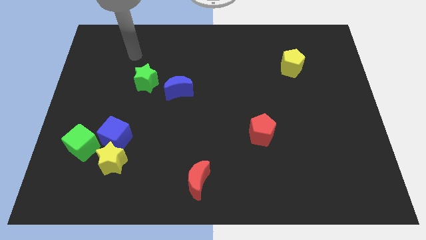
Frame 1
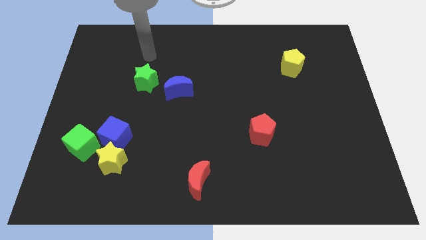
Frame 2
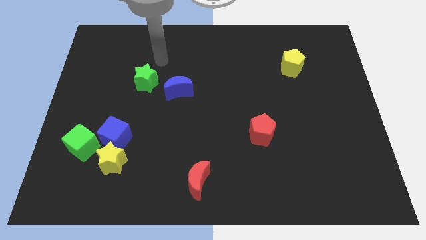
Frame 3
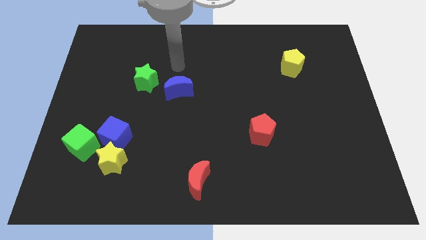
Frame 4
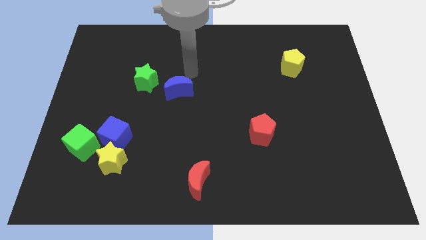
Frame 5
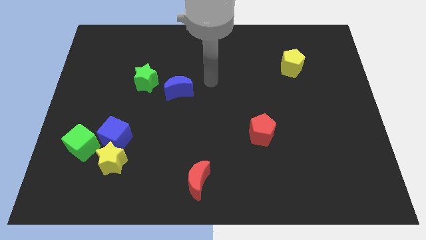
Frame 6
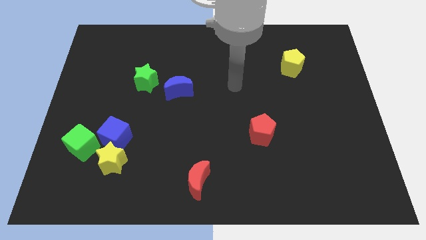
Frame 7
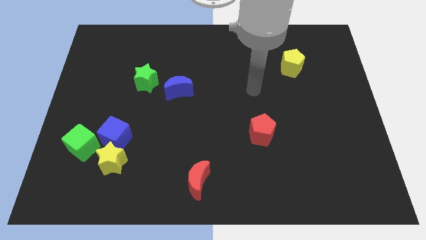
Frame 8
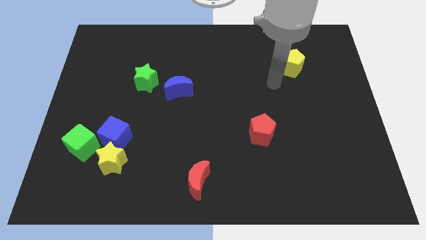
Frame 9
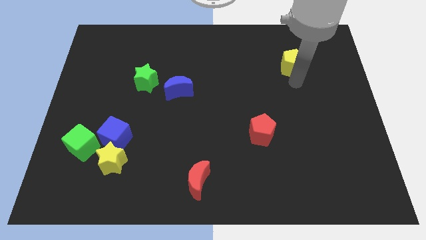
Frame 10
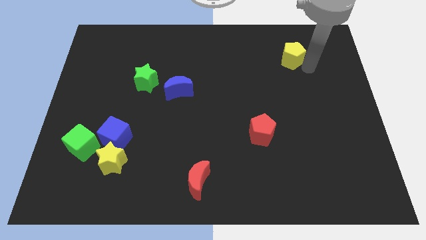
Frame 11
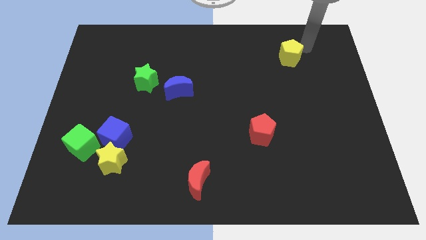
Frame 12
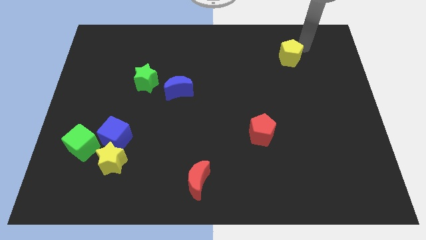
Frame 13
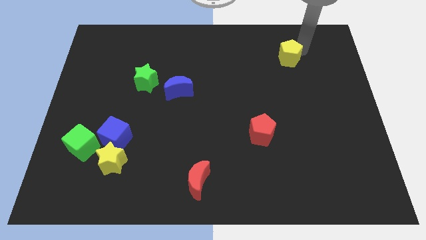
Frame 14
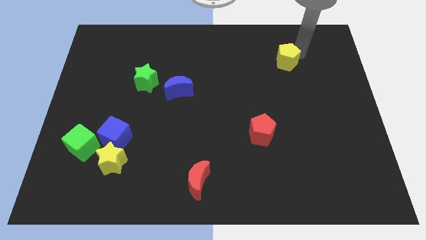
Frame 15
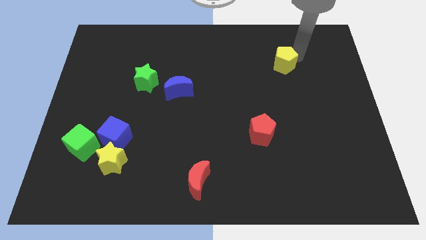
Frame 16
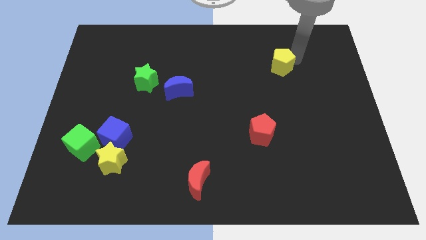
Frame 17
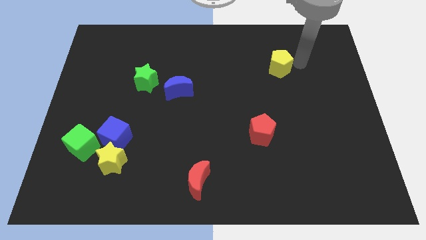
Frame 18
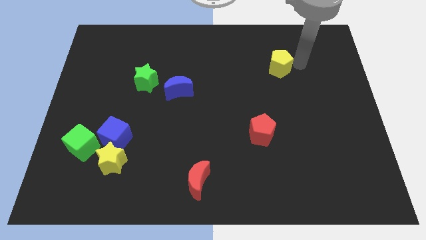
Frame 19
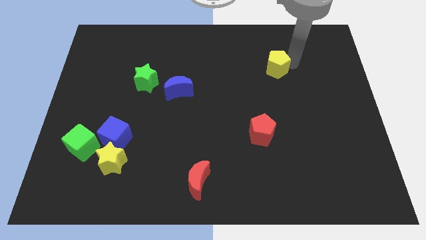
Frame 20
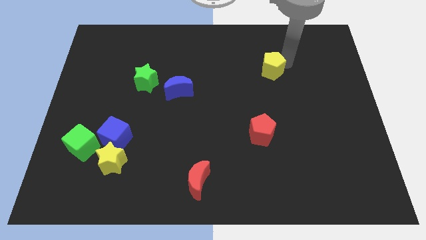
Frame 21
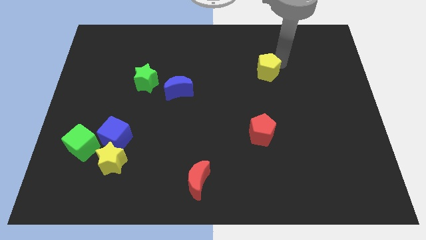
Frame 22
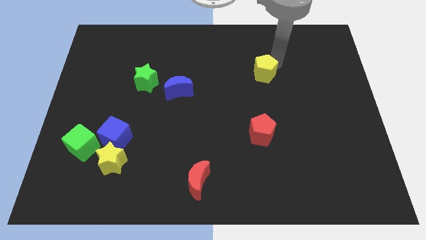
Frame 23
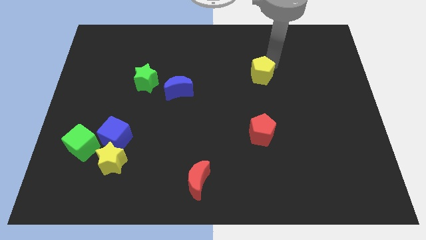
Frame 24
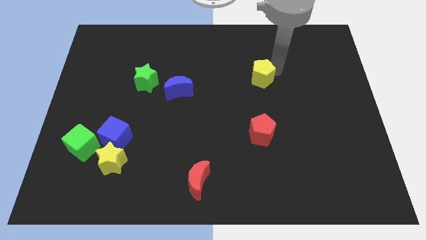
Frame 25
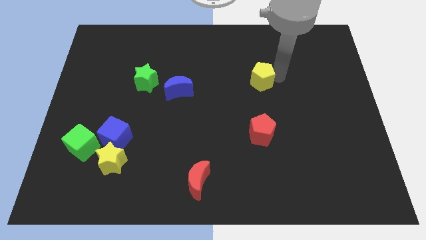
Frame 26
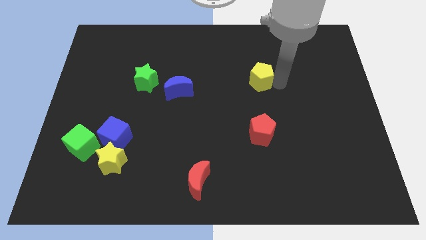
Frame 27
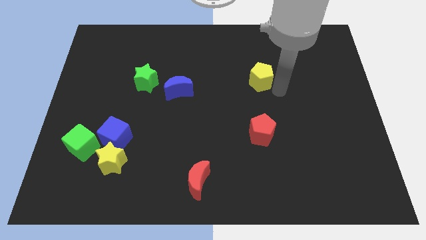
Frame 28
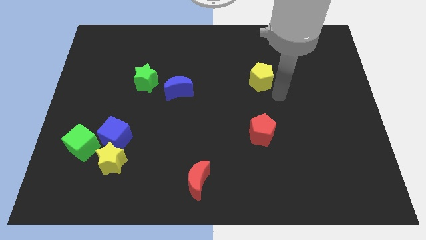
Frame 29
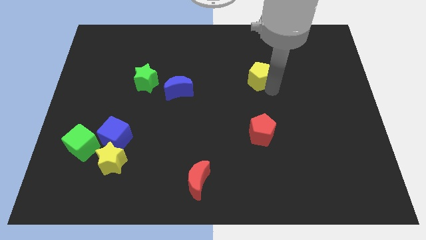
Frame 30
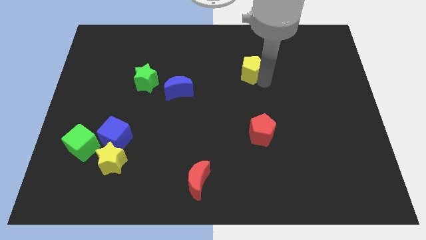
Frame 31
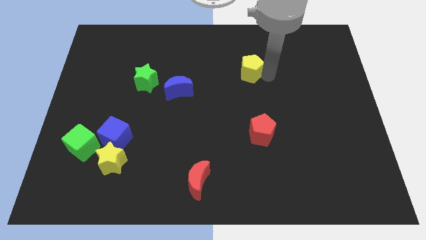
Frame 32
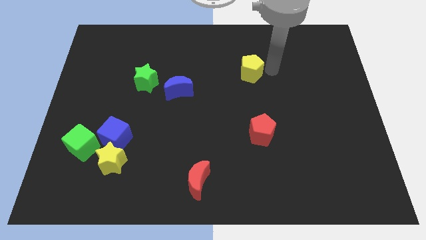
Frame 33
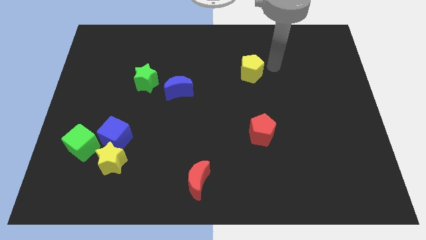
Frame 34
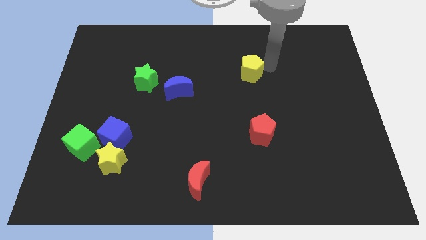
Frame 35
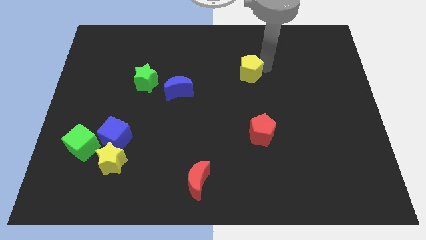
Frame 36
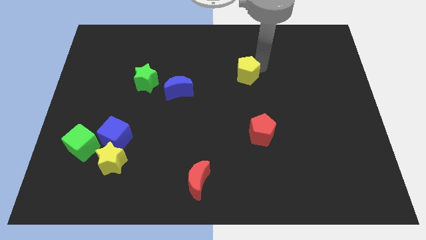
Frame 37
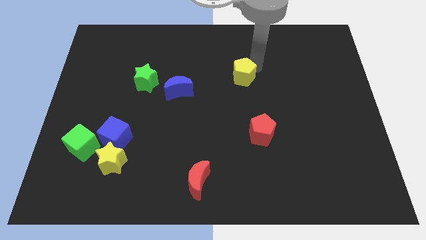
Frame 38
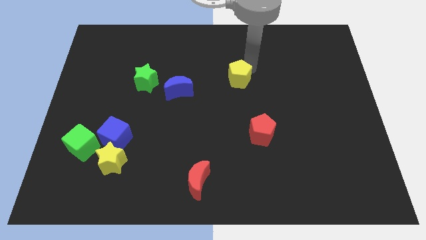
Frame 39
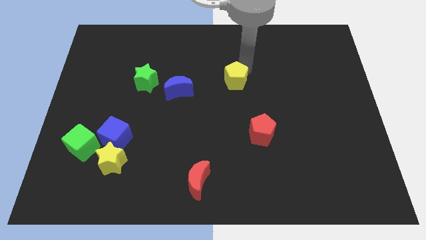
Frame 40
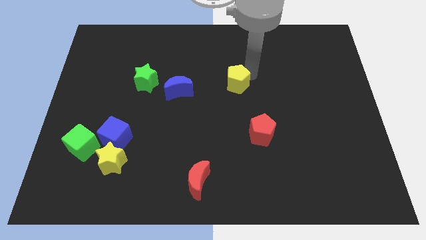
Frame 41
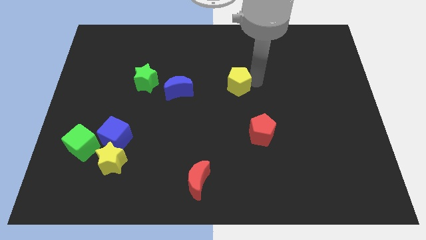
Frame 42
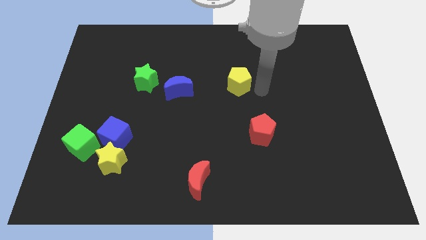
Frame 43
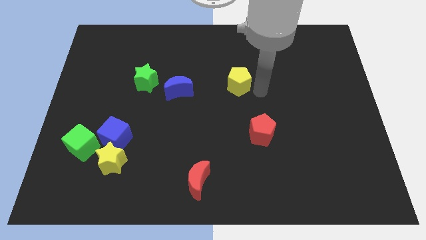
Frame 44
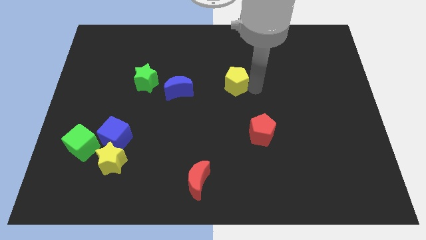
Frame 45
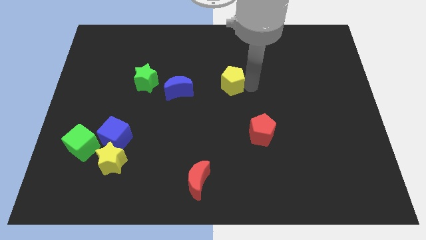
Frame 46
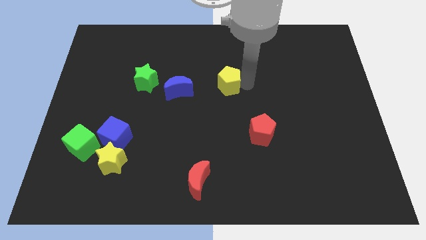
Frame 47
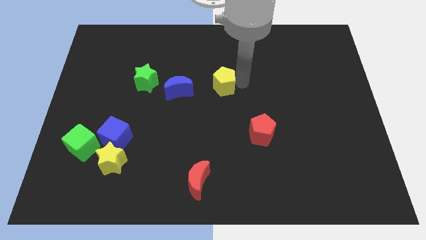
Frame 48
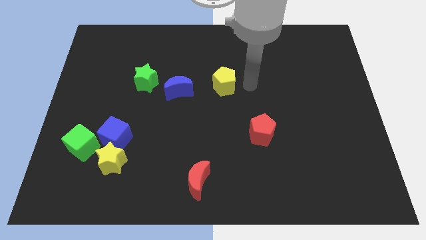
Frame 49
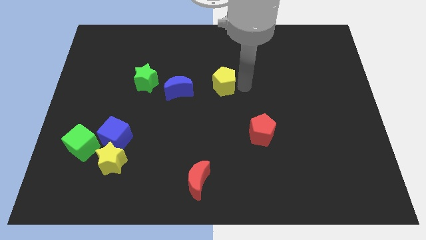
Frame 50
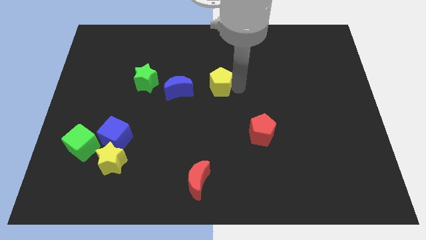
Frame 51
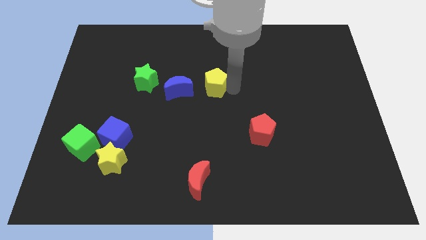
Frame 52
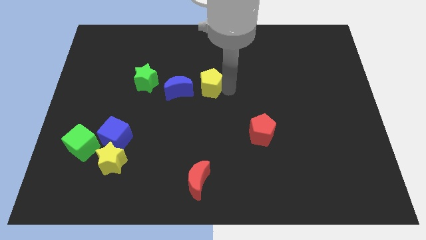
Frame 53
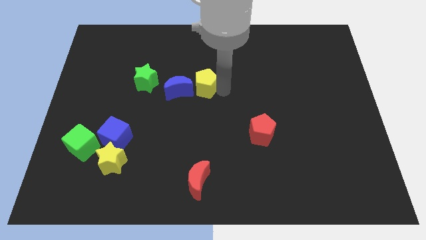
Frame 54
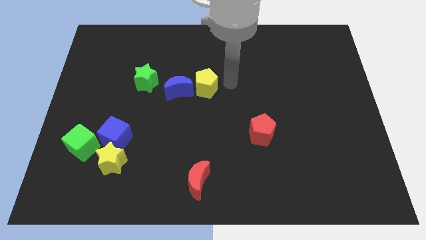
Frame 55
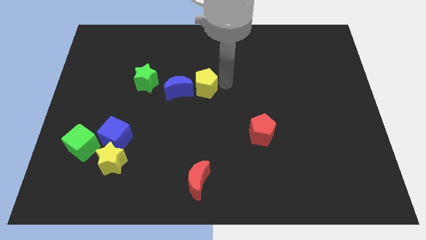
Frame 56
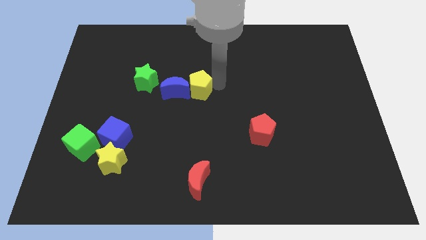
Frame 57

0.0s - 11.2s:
move the yellow pentagon close to the blue moon

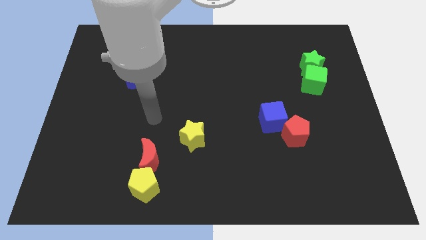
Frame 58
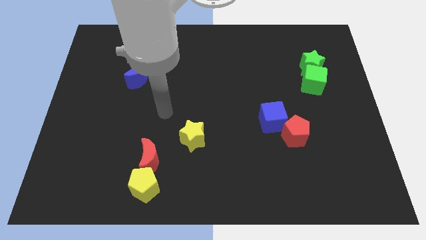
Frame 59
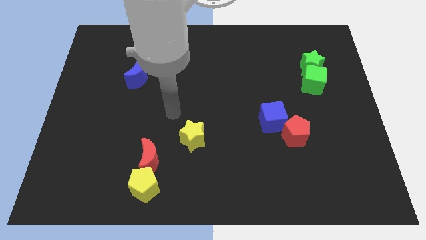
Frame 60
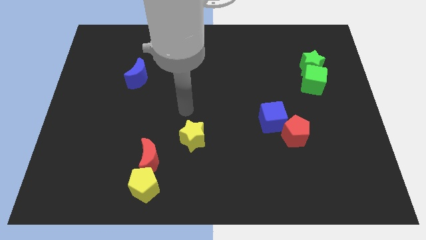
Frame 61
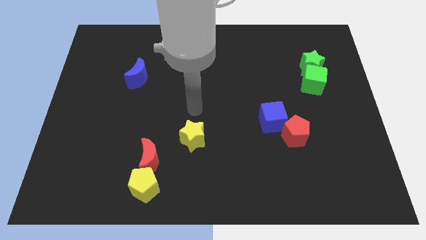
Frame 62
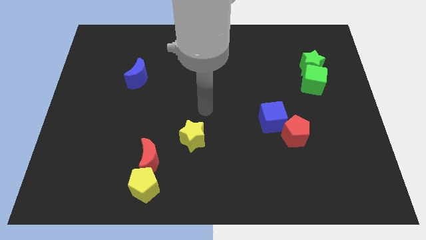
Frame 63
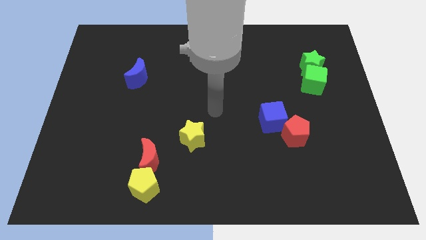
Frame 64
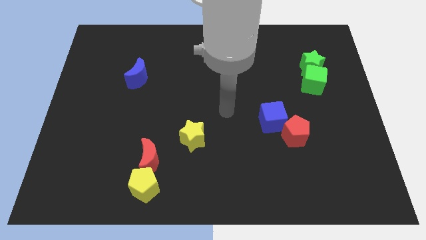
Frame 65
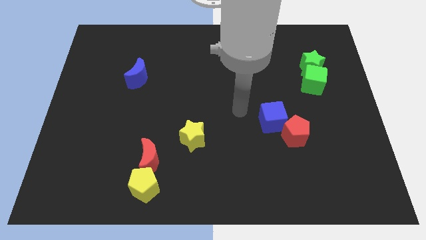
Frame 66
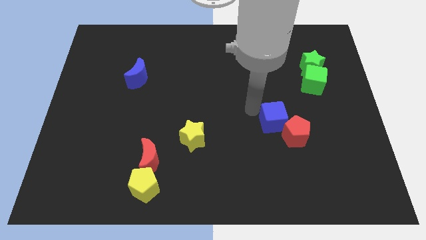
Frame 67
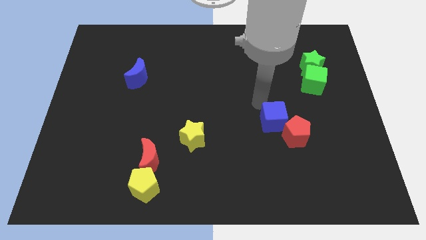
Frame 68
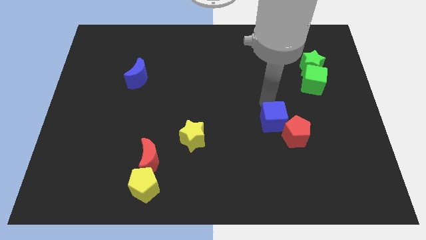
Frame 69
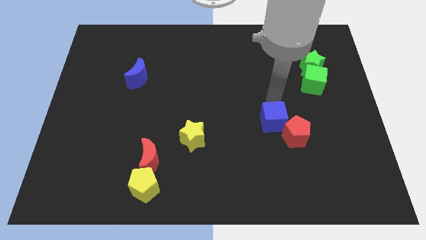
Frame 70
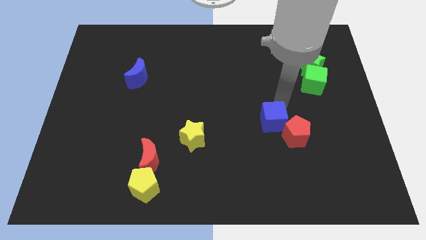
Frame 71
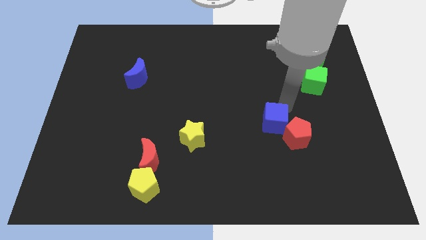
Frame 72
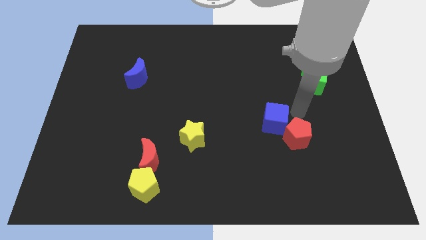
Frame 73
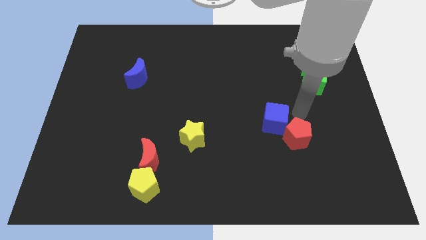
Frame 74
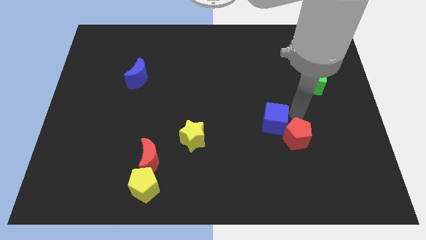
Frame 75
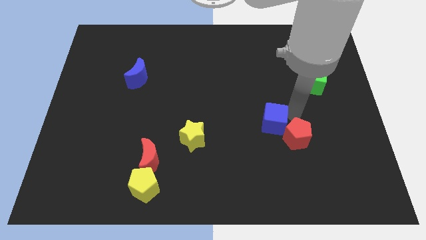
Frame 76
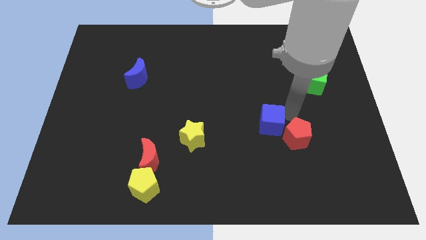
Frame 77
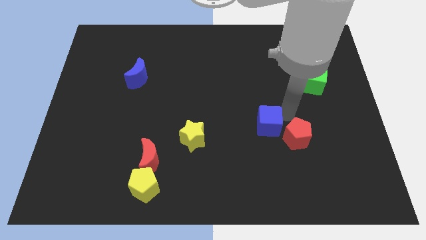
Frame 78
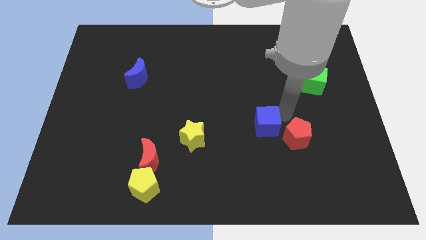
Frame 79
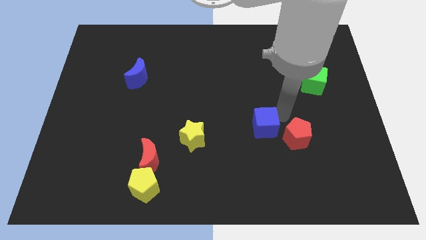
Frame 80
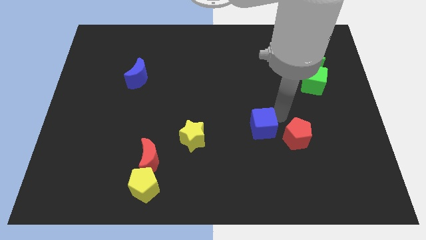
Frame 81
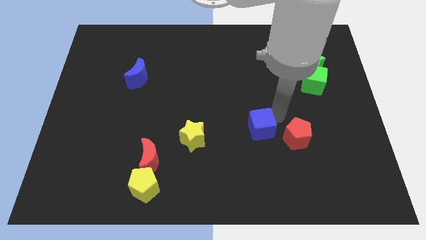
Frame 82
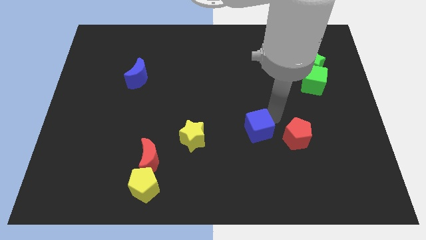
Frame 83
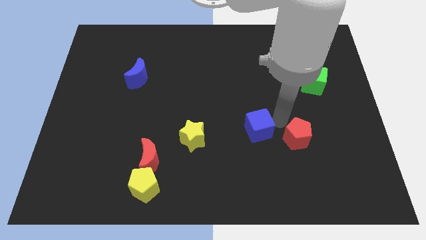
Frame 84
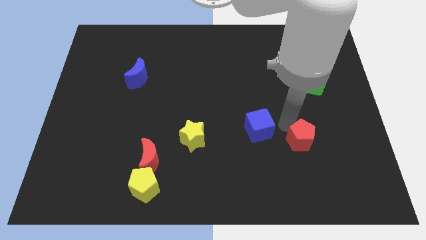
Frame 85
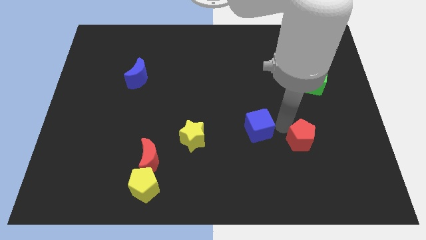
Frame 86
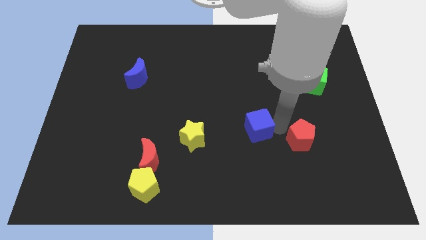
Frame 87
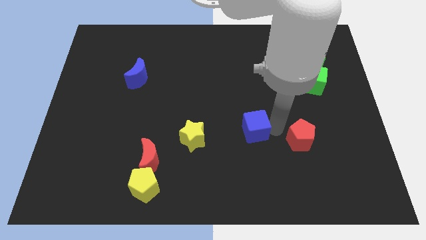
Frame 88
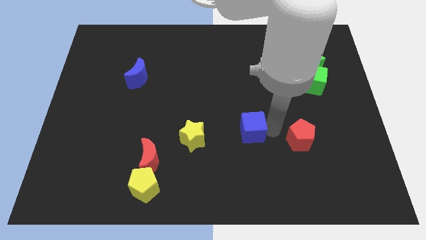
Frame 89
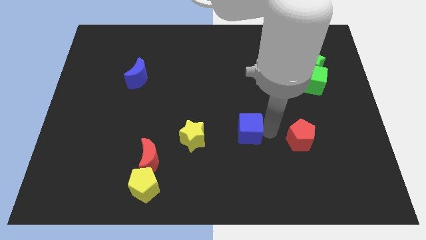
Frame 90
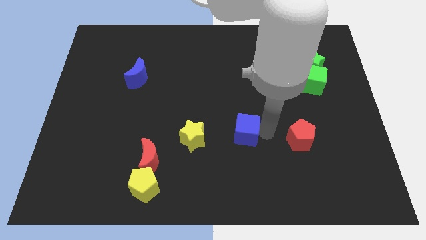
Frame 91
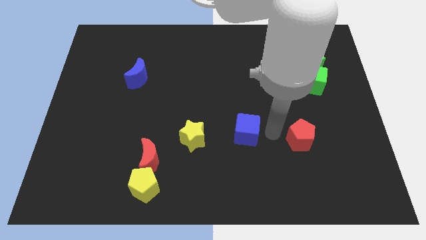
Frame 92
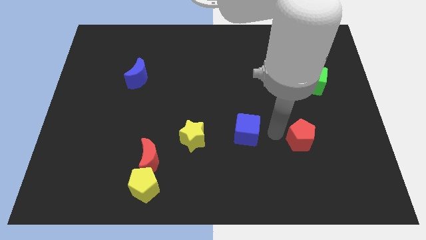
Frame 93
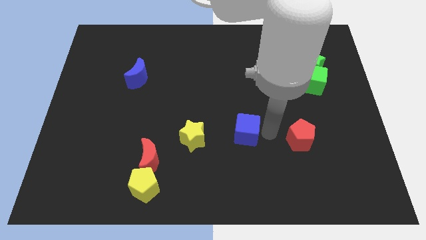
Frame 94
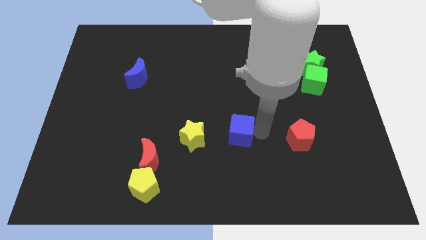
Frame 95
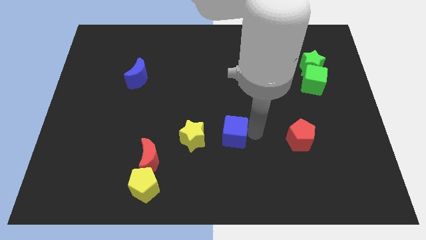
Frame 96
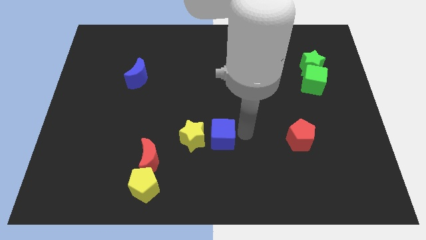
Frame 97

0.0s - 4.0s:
push the blue cube next to the yellow star
